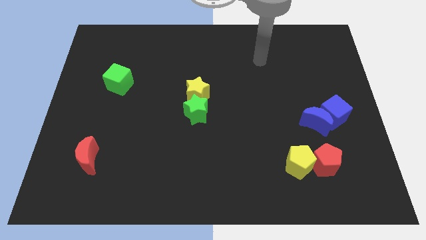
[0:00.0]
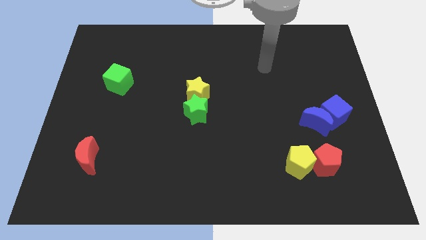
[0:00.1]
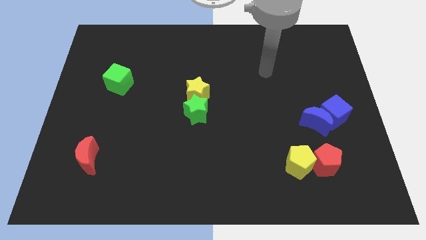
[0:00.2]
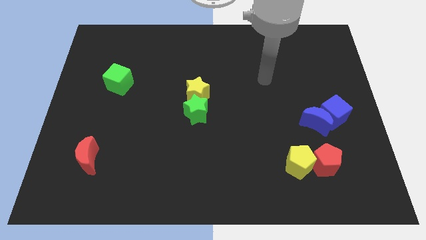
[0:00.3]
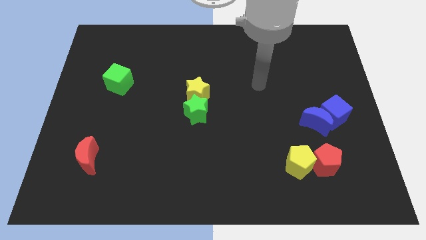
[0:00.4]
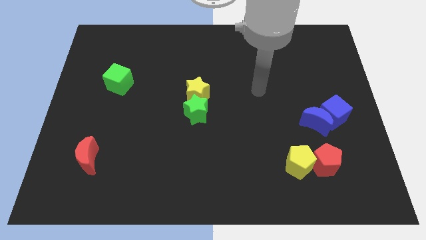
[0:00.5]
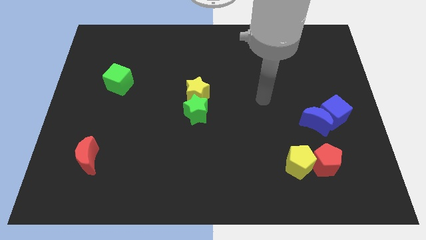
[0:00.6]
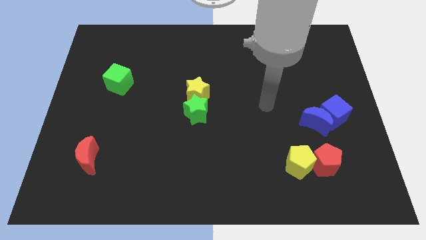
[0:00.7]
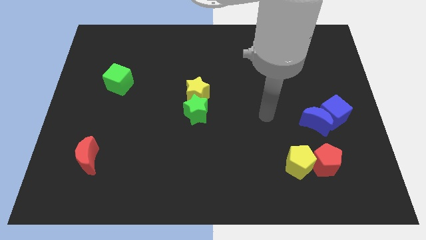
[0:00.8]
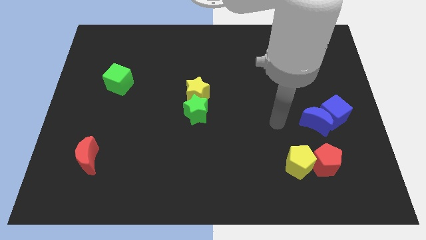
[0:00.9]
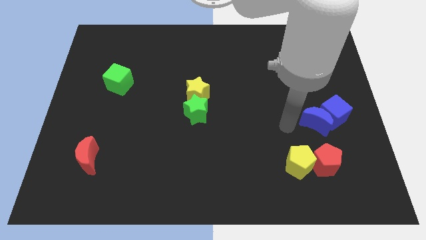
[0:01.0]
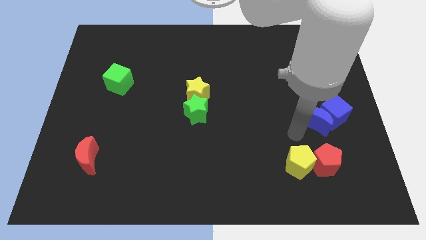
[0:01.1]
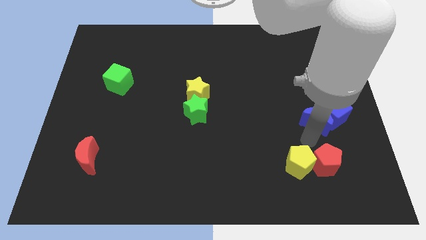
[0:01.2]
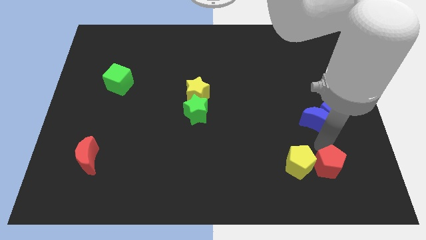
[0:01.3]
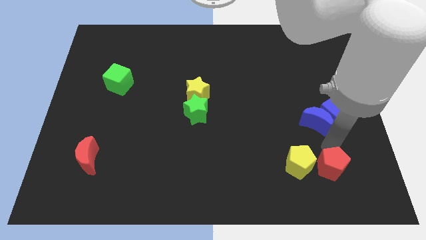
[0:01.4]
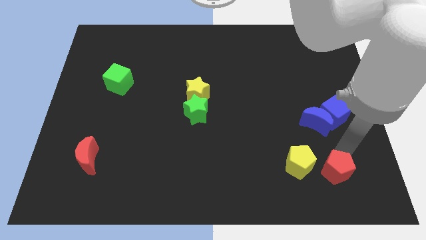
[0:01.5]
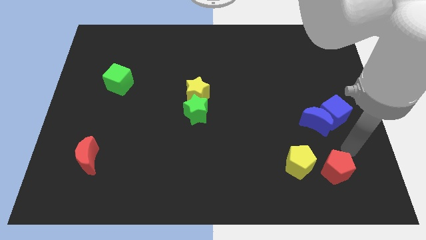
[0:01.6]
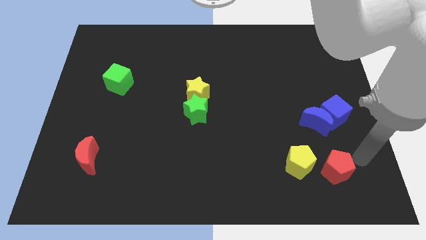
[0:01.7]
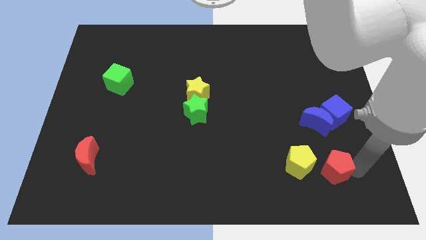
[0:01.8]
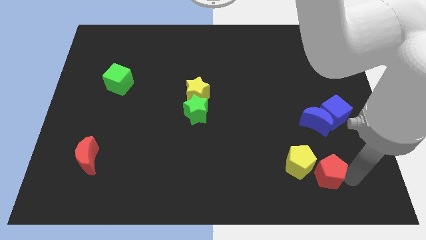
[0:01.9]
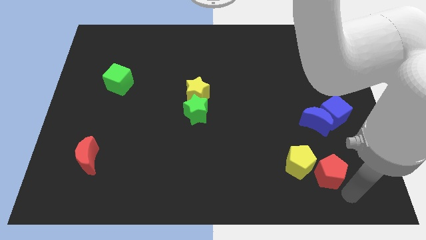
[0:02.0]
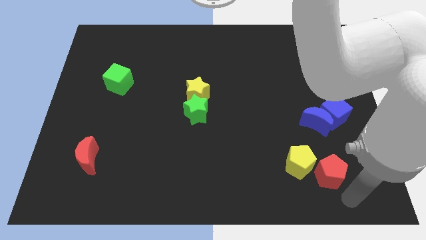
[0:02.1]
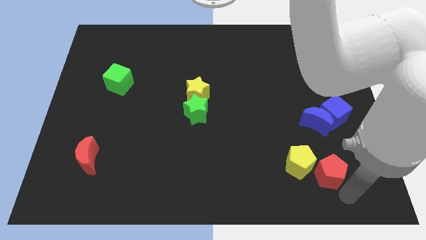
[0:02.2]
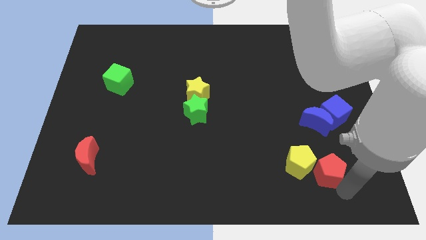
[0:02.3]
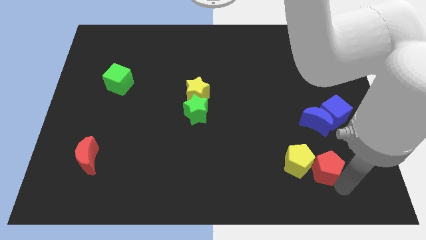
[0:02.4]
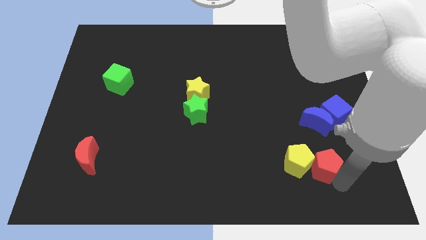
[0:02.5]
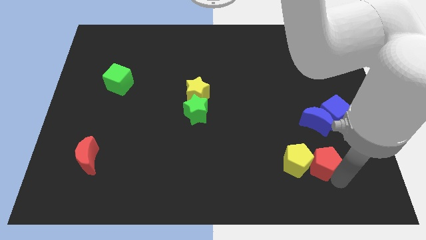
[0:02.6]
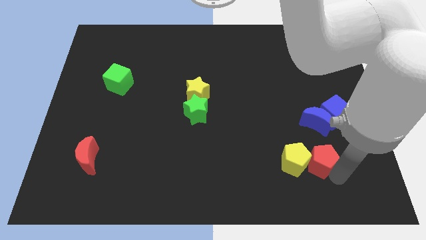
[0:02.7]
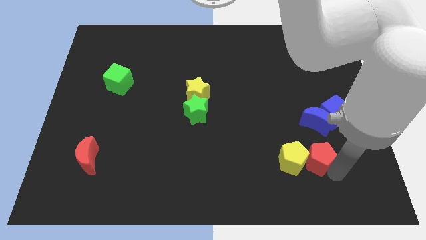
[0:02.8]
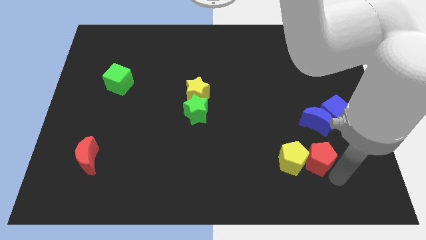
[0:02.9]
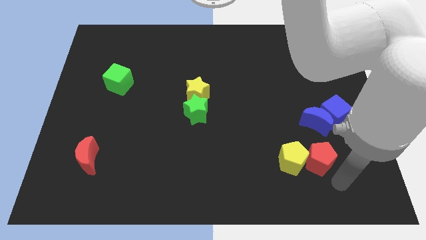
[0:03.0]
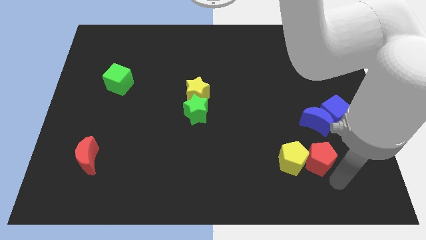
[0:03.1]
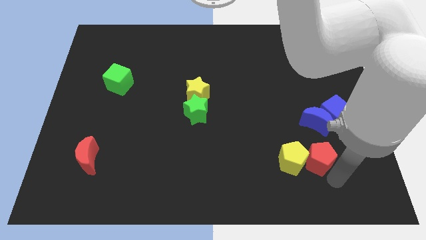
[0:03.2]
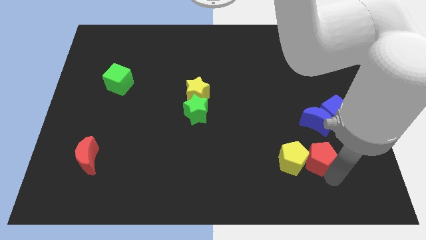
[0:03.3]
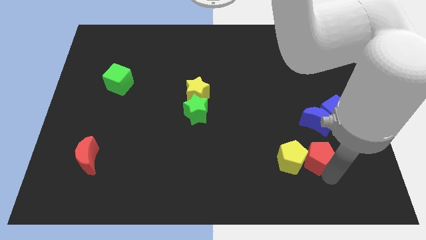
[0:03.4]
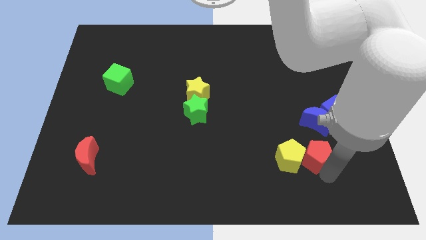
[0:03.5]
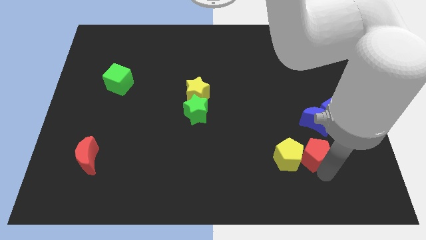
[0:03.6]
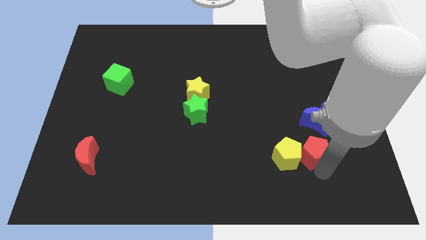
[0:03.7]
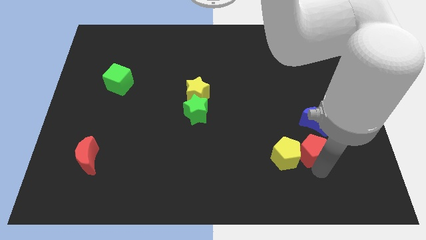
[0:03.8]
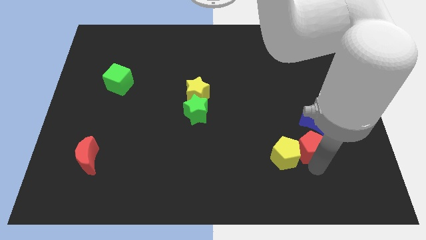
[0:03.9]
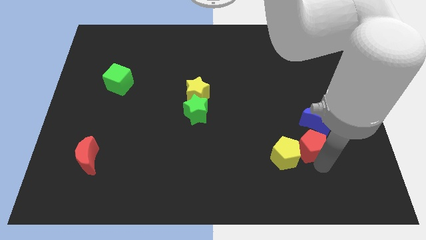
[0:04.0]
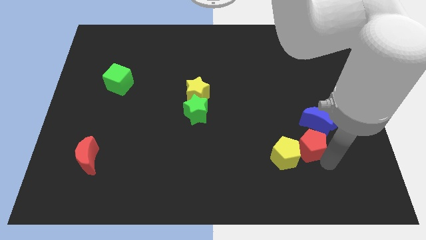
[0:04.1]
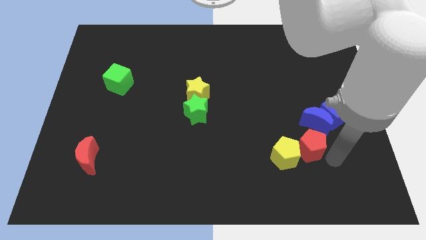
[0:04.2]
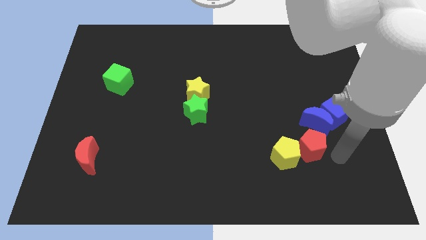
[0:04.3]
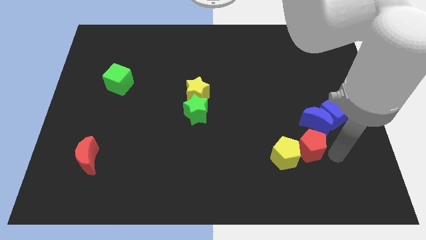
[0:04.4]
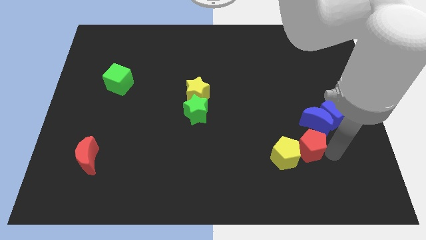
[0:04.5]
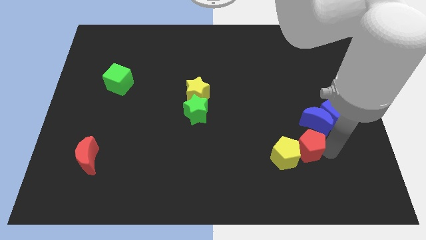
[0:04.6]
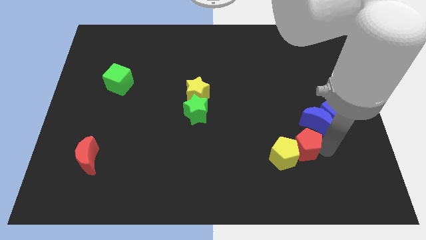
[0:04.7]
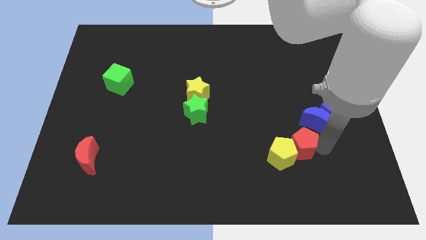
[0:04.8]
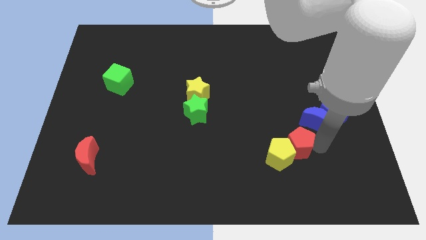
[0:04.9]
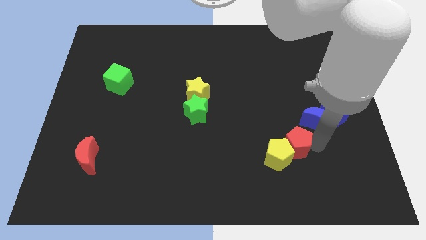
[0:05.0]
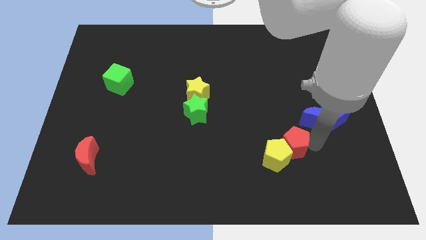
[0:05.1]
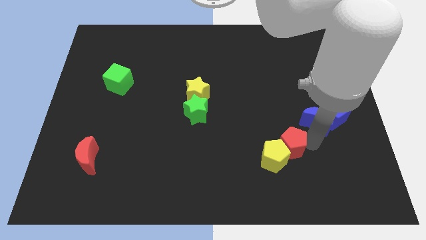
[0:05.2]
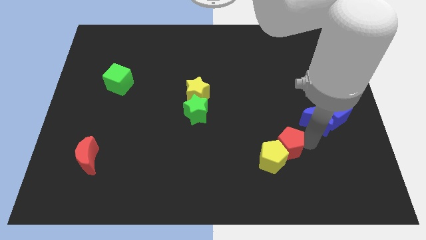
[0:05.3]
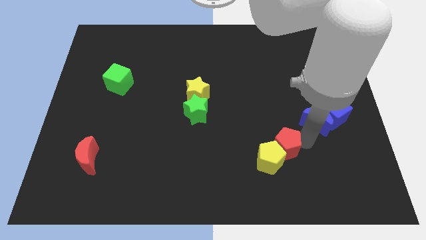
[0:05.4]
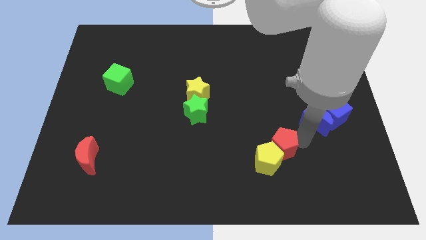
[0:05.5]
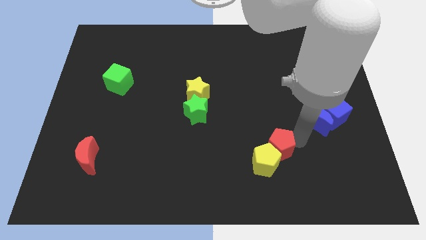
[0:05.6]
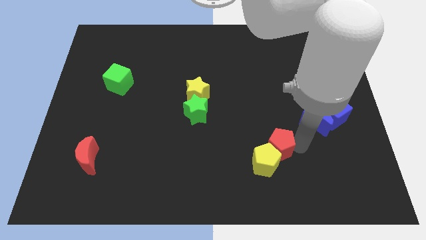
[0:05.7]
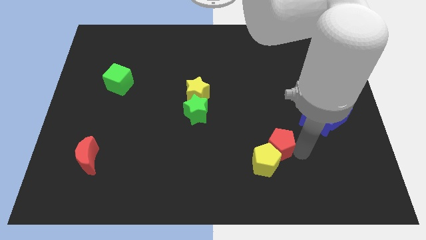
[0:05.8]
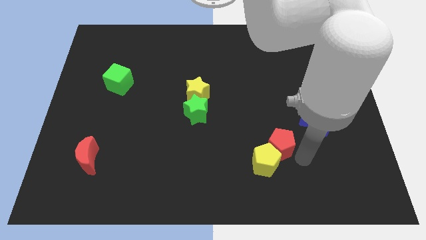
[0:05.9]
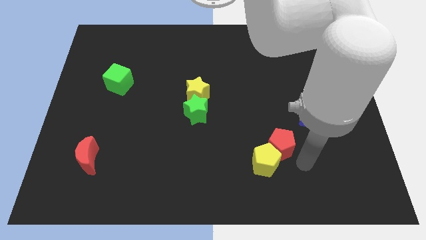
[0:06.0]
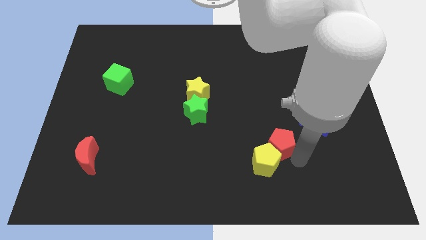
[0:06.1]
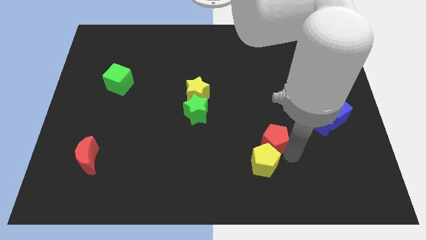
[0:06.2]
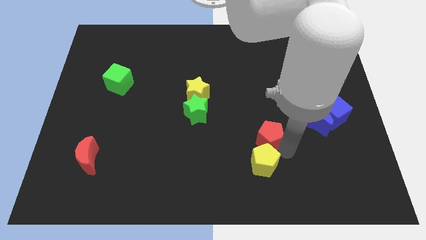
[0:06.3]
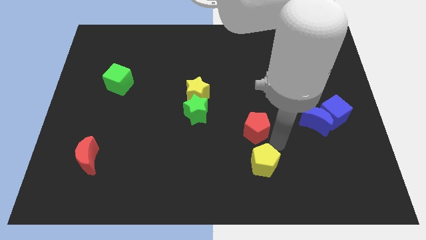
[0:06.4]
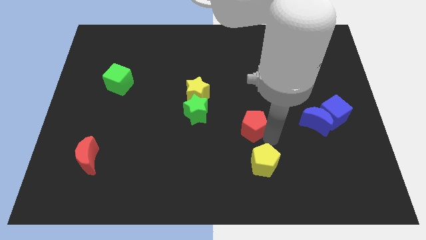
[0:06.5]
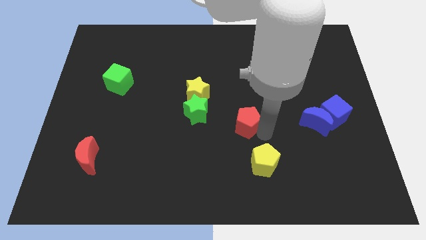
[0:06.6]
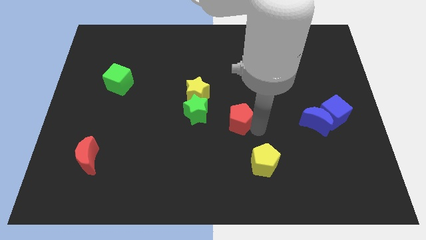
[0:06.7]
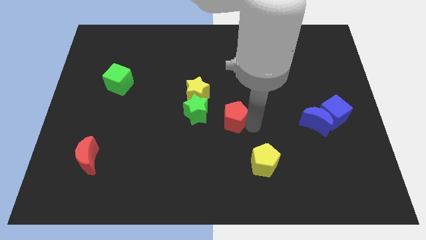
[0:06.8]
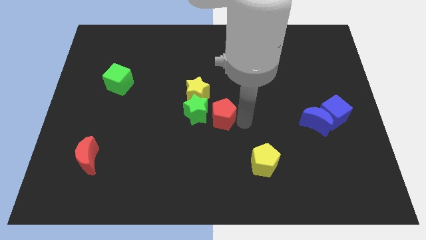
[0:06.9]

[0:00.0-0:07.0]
slide the red pentagon next to the green star
